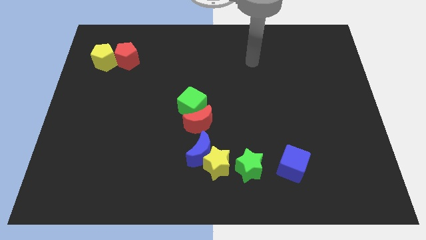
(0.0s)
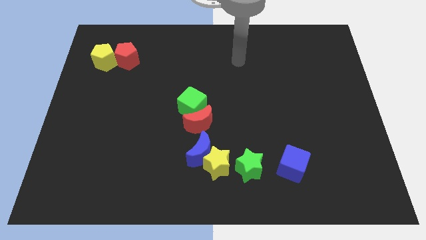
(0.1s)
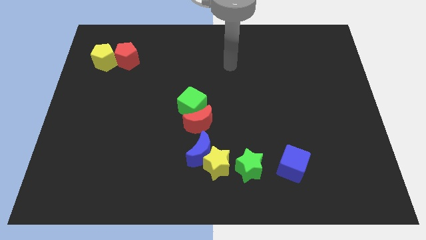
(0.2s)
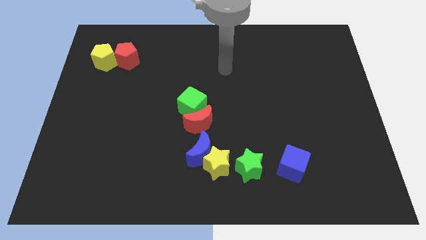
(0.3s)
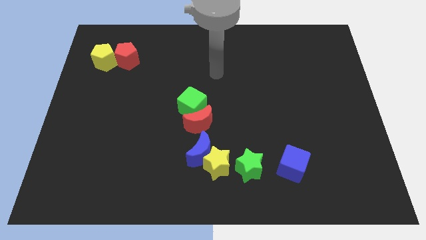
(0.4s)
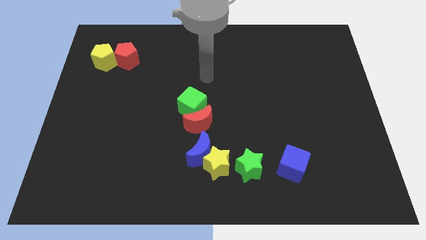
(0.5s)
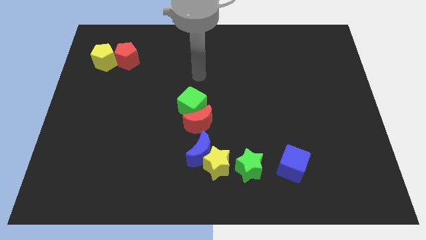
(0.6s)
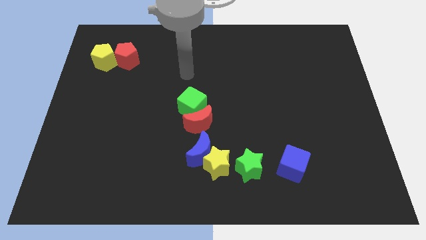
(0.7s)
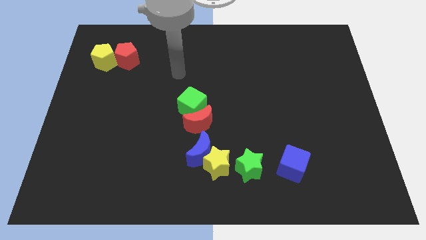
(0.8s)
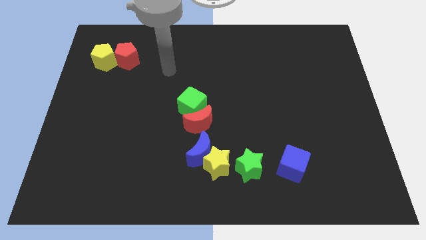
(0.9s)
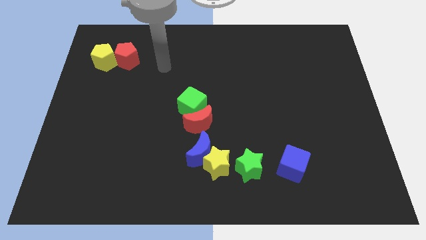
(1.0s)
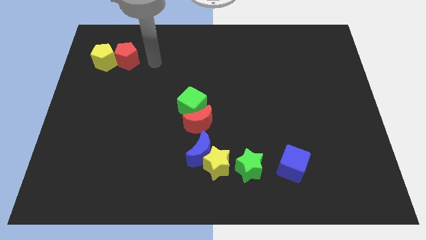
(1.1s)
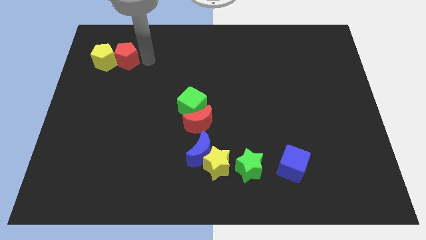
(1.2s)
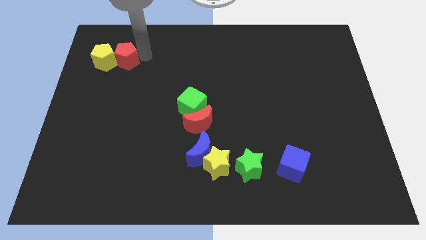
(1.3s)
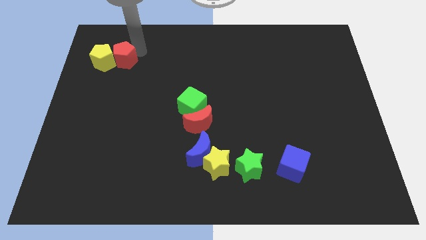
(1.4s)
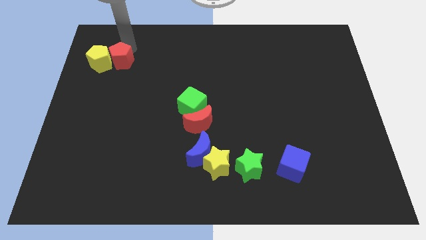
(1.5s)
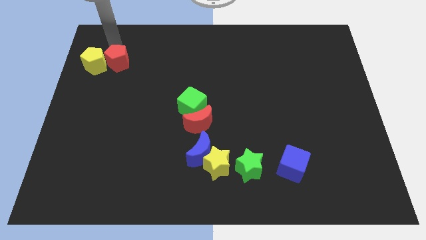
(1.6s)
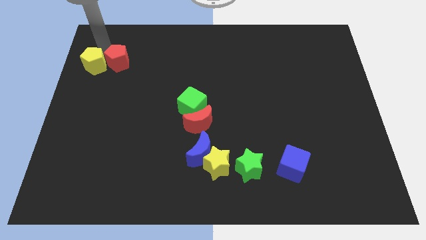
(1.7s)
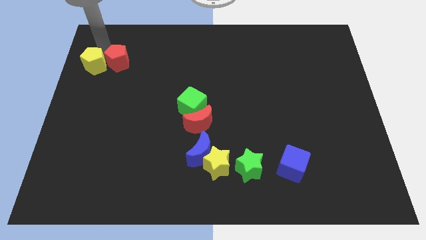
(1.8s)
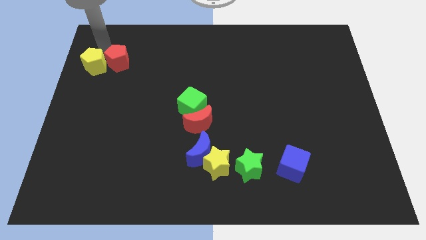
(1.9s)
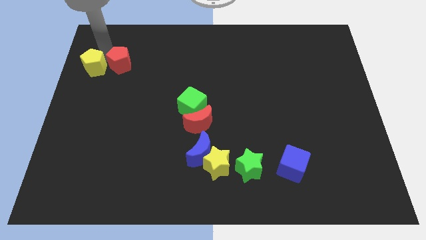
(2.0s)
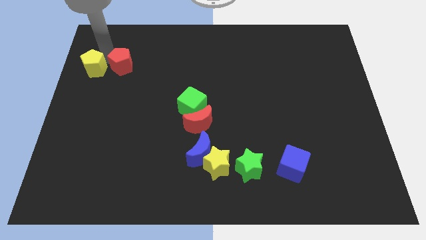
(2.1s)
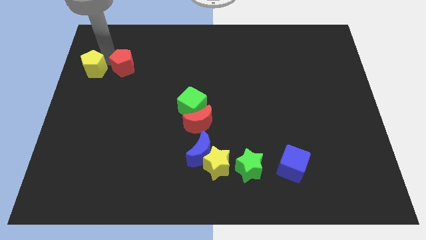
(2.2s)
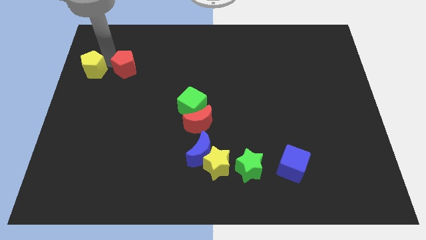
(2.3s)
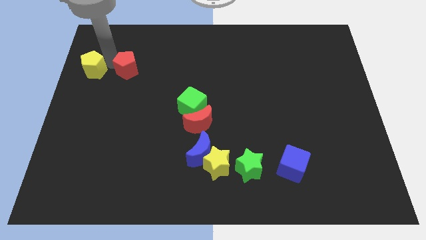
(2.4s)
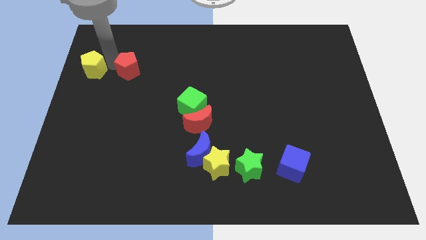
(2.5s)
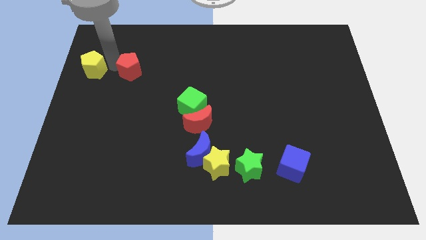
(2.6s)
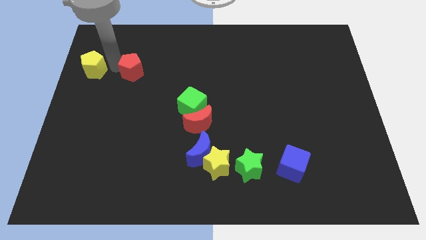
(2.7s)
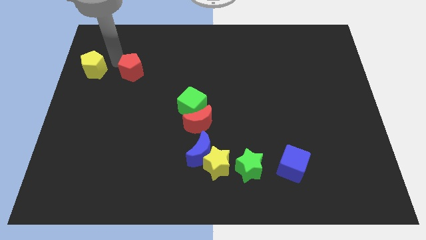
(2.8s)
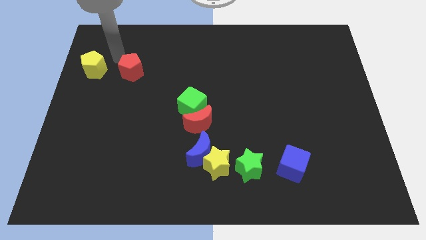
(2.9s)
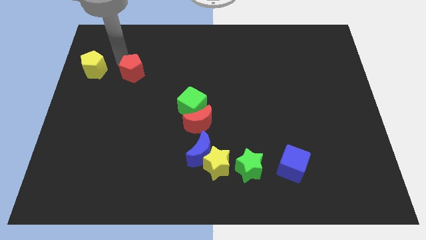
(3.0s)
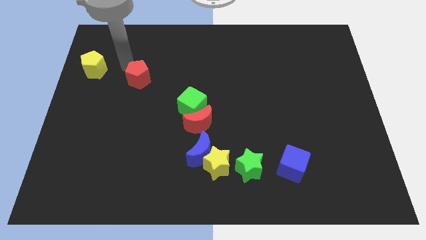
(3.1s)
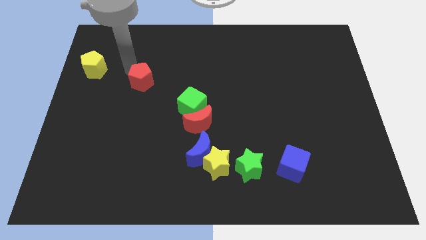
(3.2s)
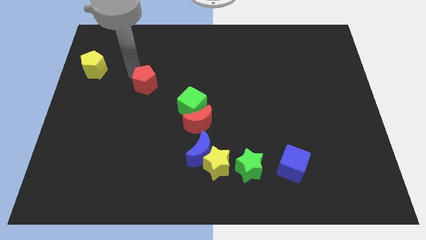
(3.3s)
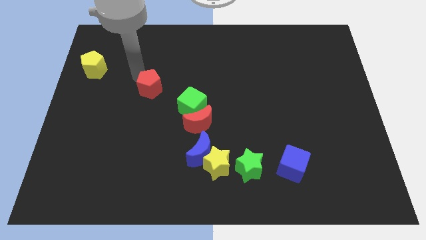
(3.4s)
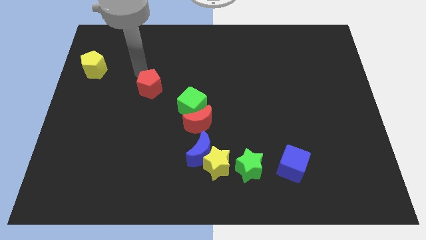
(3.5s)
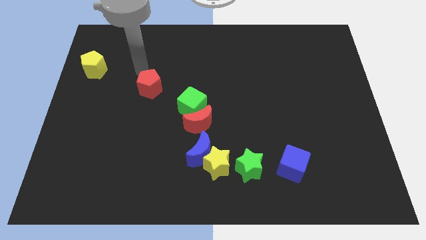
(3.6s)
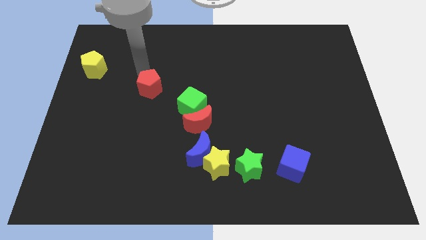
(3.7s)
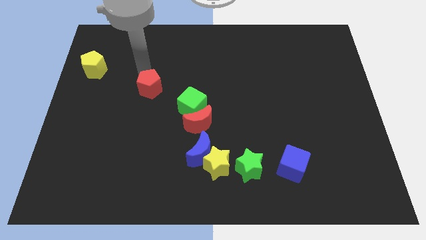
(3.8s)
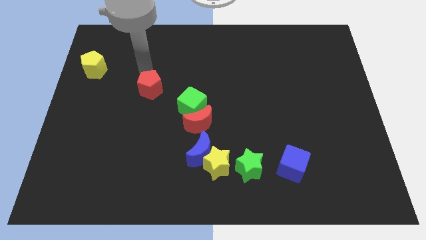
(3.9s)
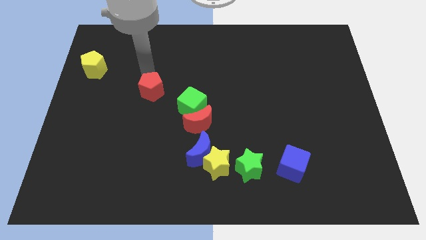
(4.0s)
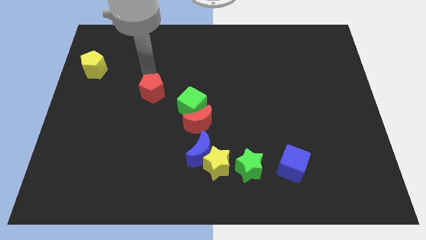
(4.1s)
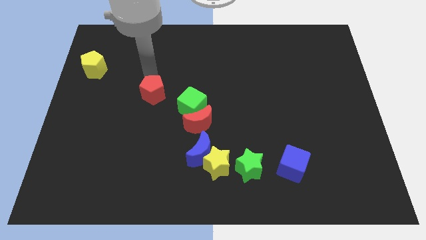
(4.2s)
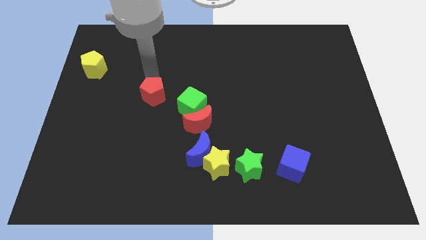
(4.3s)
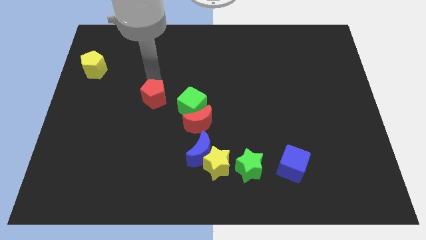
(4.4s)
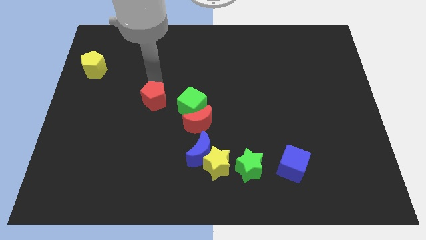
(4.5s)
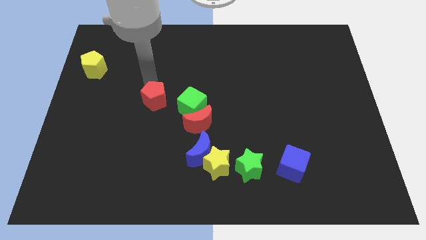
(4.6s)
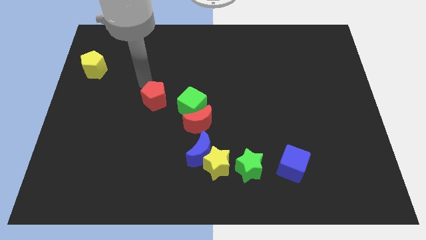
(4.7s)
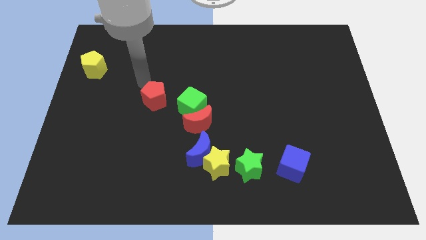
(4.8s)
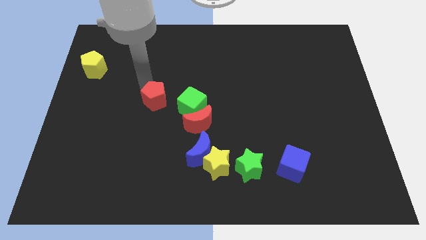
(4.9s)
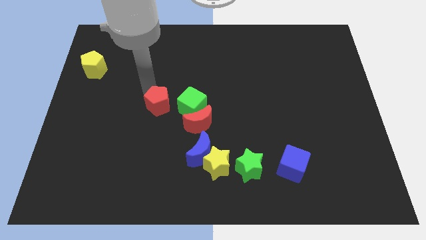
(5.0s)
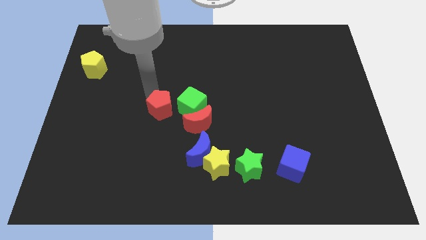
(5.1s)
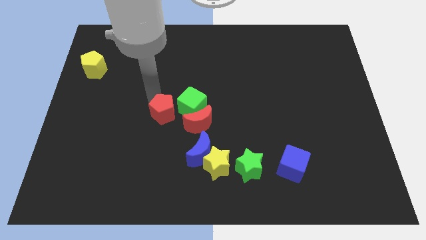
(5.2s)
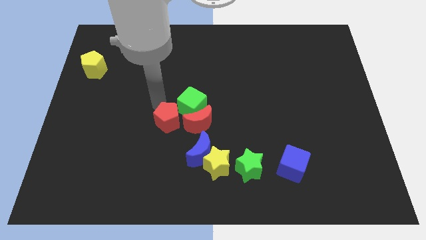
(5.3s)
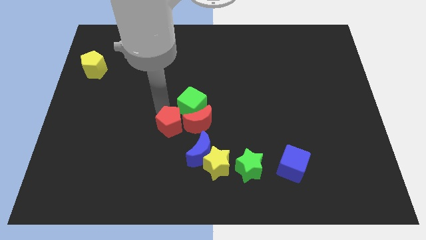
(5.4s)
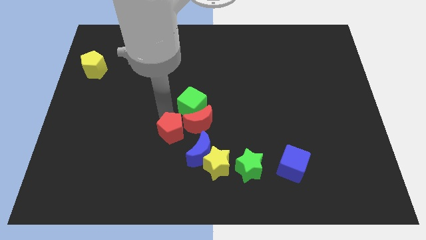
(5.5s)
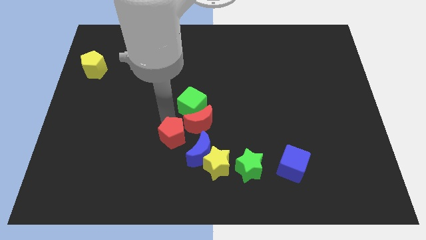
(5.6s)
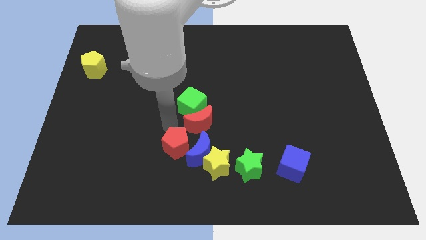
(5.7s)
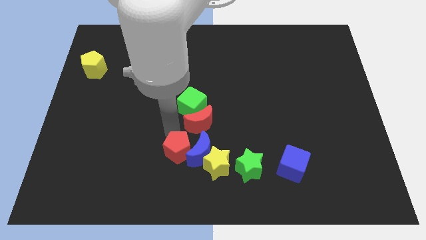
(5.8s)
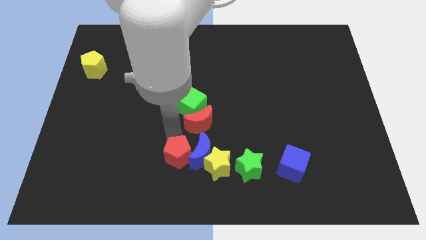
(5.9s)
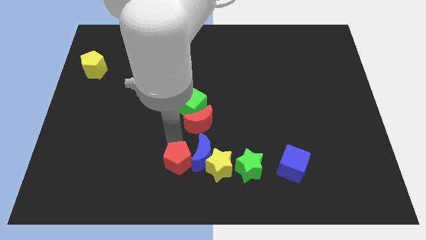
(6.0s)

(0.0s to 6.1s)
put the red pentagon to the bottom side

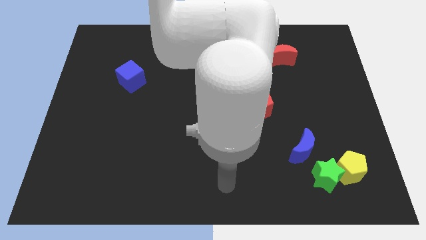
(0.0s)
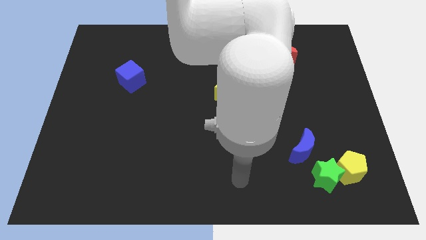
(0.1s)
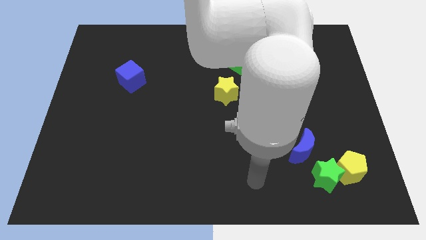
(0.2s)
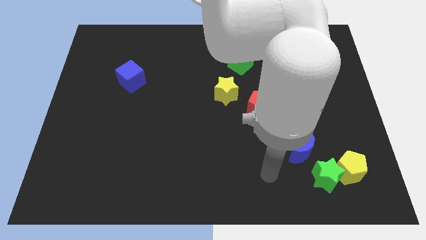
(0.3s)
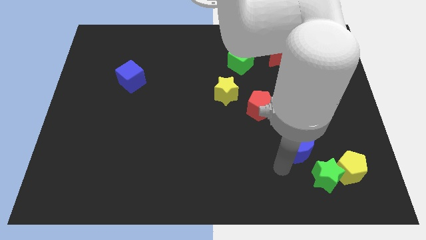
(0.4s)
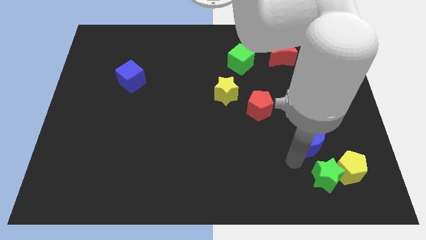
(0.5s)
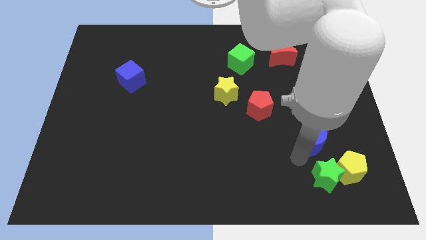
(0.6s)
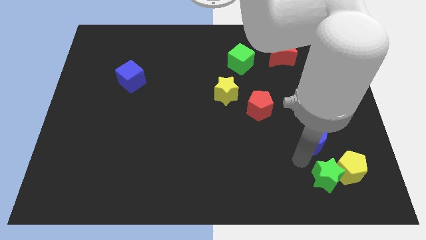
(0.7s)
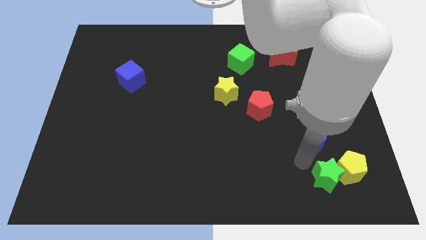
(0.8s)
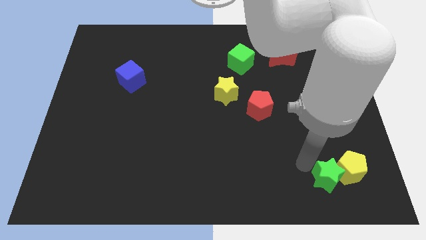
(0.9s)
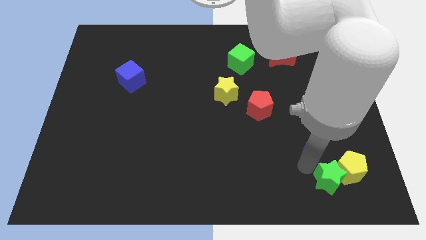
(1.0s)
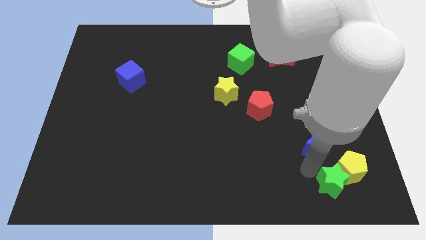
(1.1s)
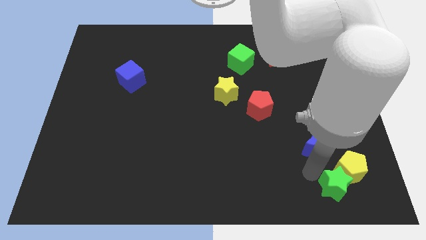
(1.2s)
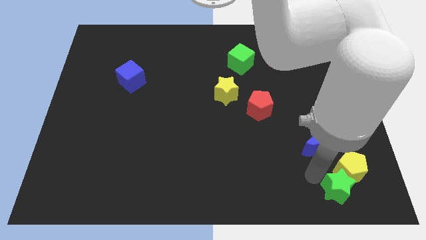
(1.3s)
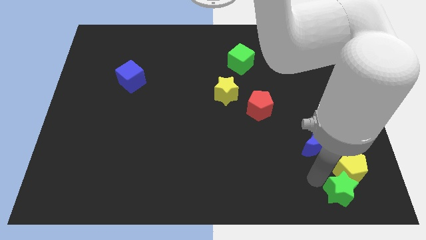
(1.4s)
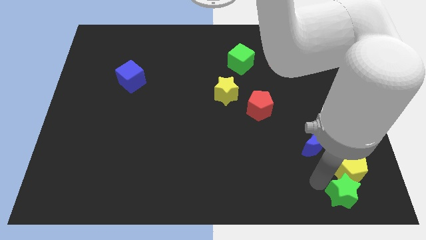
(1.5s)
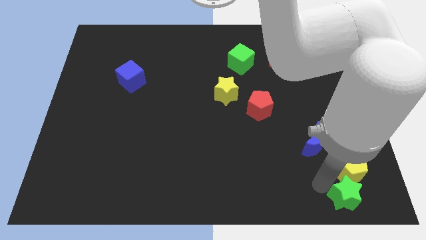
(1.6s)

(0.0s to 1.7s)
put the green star to the bottom right
